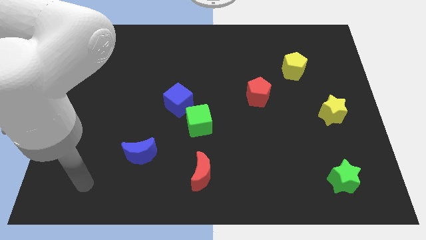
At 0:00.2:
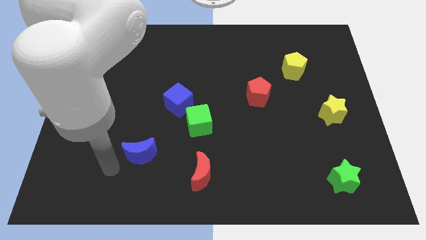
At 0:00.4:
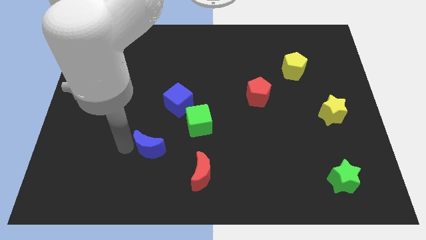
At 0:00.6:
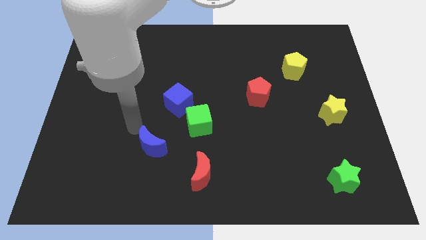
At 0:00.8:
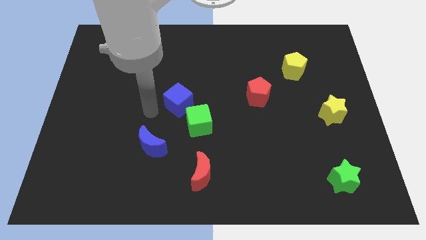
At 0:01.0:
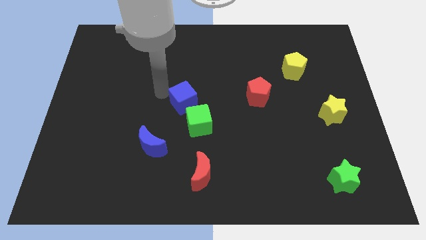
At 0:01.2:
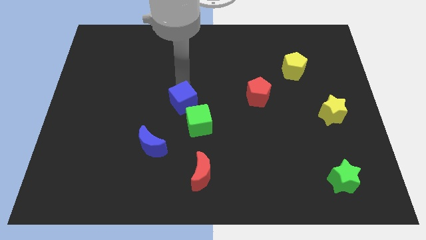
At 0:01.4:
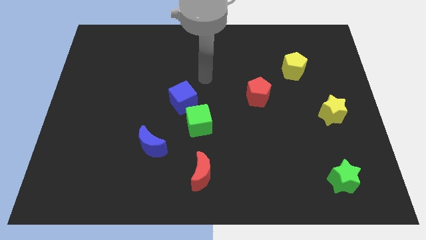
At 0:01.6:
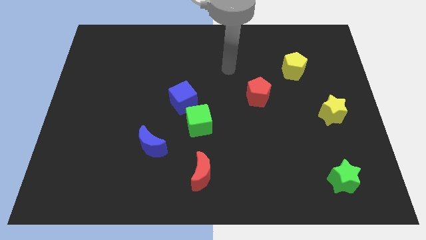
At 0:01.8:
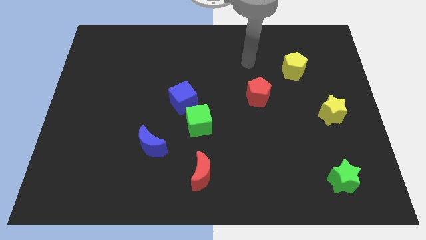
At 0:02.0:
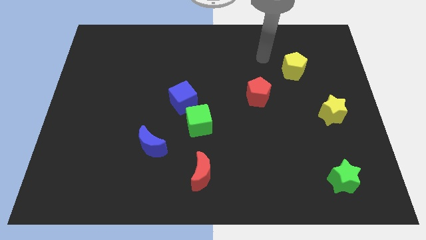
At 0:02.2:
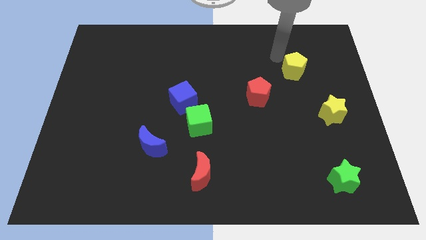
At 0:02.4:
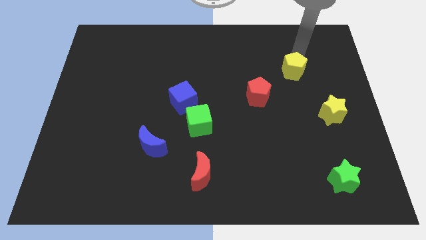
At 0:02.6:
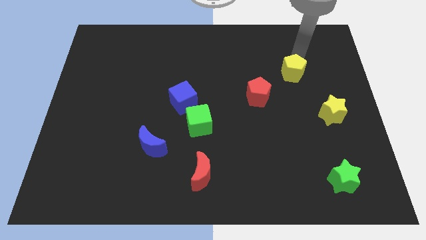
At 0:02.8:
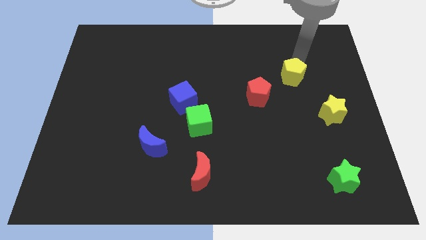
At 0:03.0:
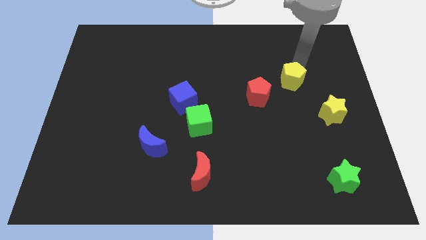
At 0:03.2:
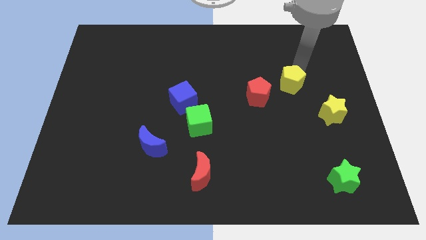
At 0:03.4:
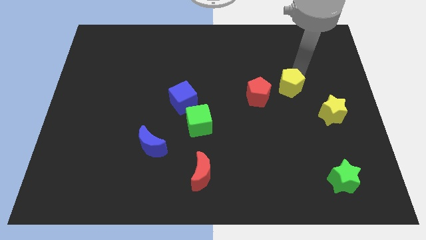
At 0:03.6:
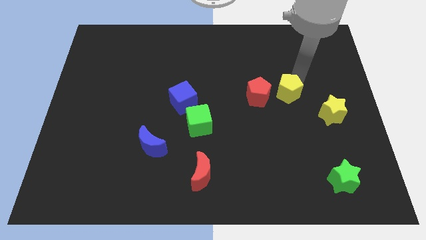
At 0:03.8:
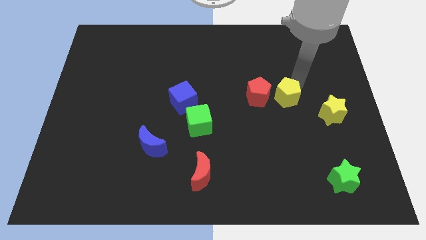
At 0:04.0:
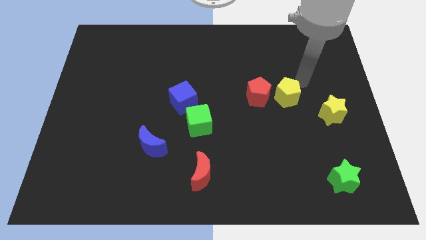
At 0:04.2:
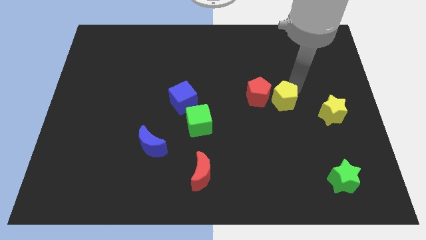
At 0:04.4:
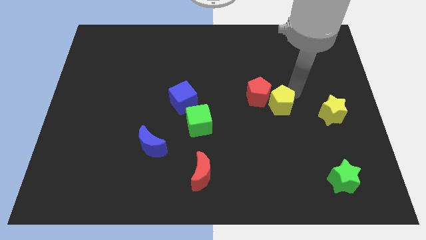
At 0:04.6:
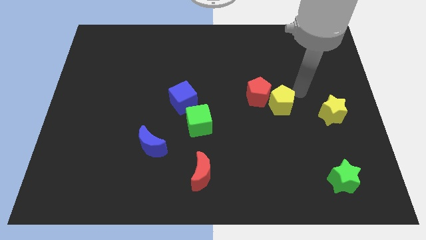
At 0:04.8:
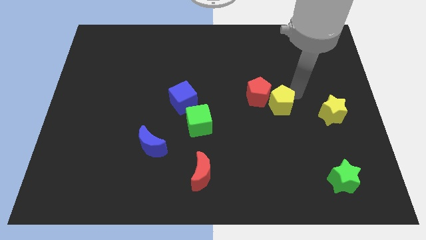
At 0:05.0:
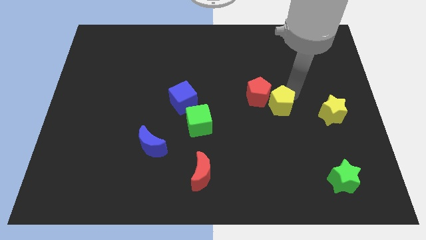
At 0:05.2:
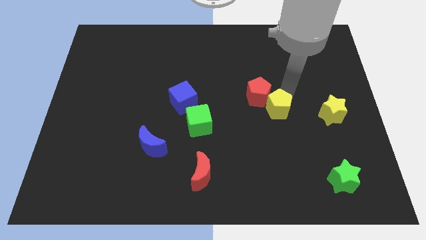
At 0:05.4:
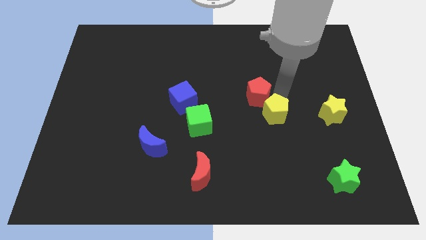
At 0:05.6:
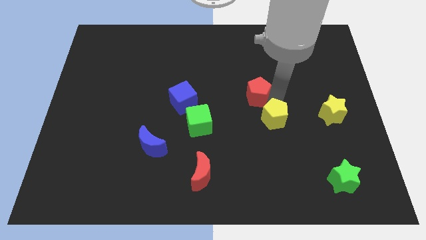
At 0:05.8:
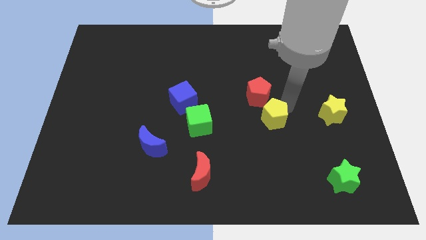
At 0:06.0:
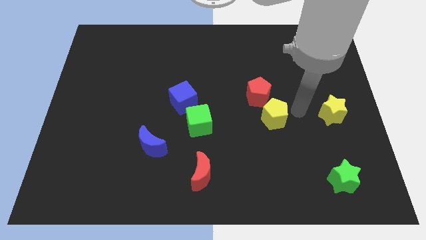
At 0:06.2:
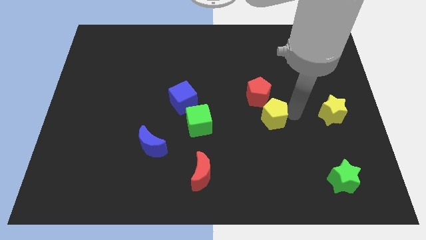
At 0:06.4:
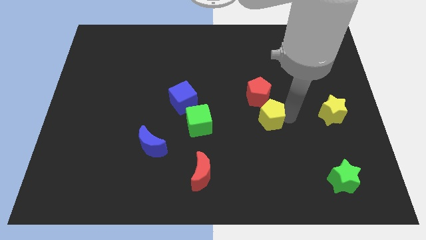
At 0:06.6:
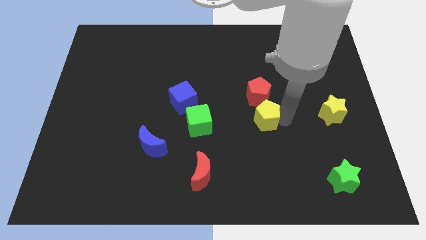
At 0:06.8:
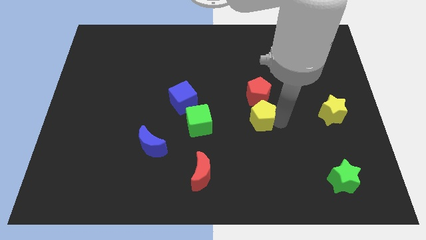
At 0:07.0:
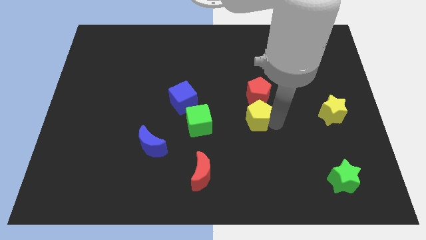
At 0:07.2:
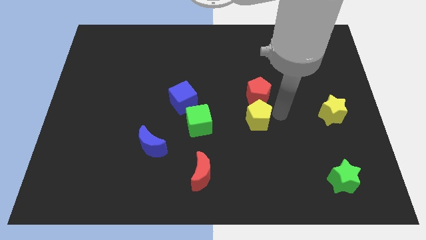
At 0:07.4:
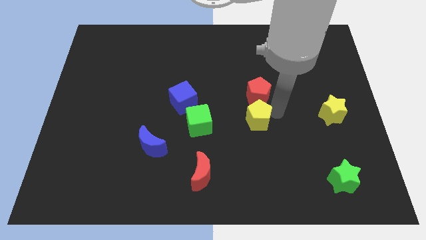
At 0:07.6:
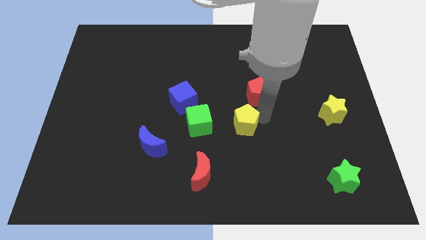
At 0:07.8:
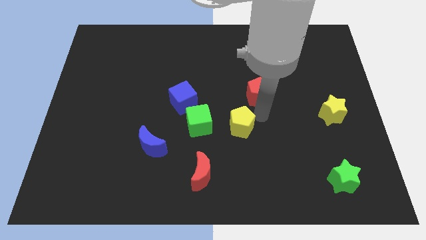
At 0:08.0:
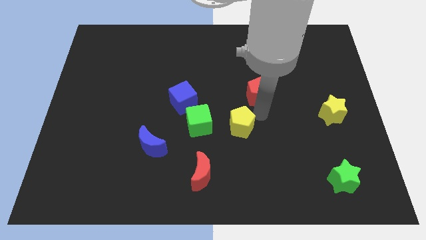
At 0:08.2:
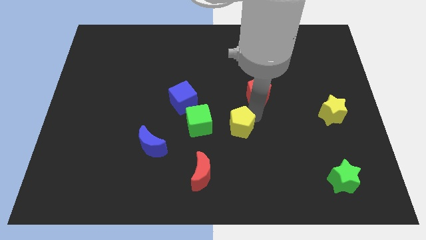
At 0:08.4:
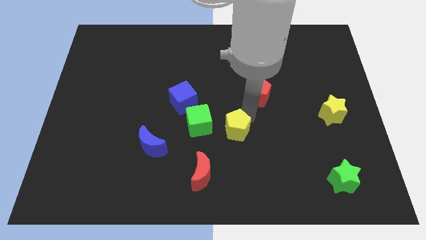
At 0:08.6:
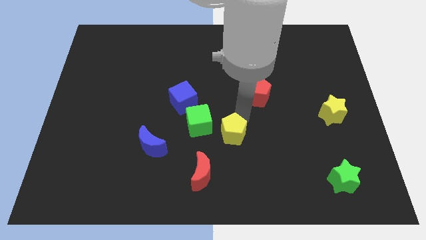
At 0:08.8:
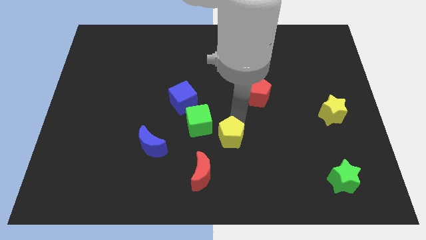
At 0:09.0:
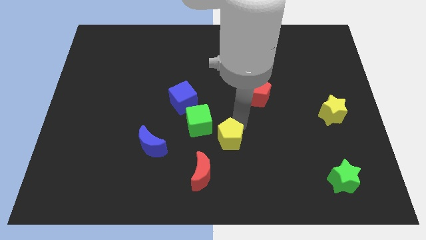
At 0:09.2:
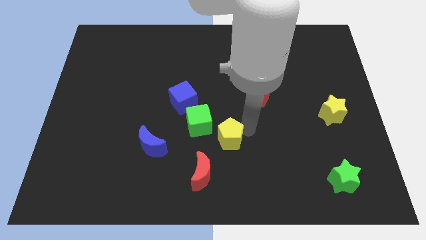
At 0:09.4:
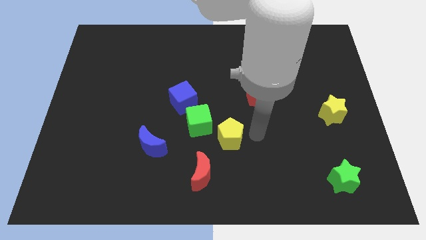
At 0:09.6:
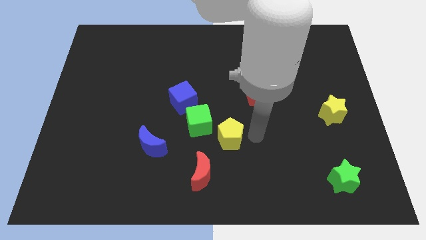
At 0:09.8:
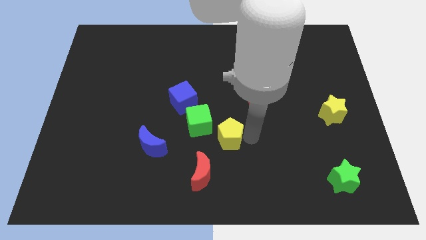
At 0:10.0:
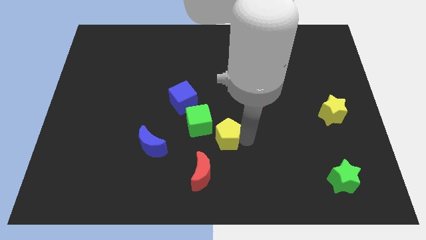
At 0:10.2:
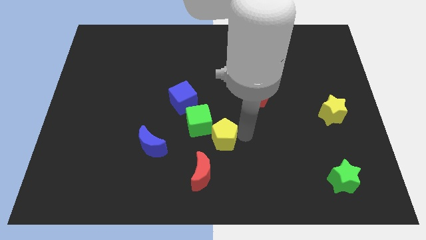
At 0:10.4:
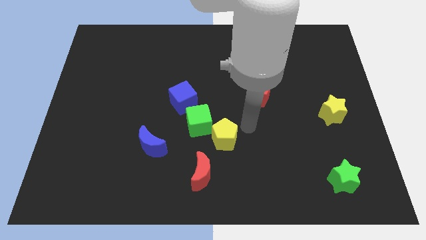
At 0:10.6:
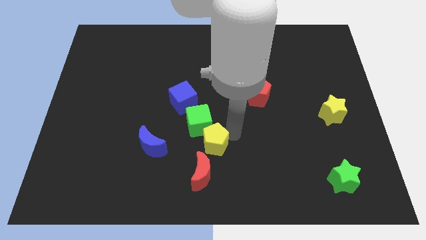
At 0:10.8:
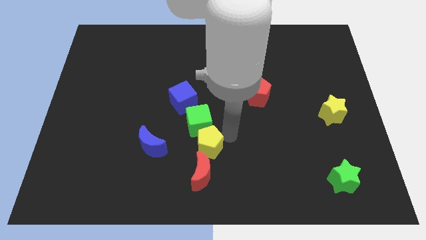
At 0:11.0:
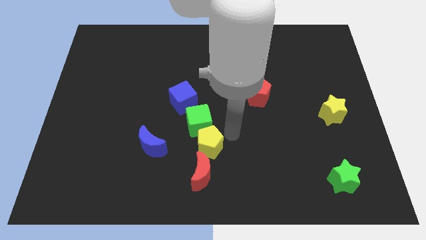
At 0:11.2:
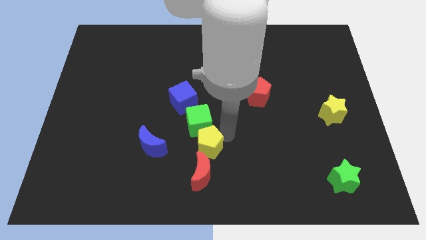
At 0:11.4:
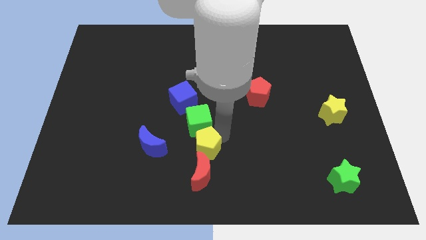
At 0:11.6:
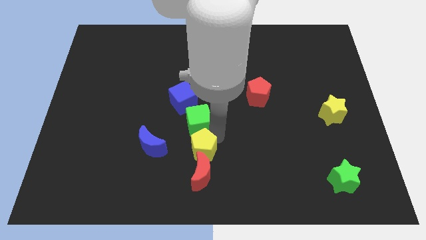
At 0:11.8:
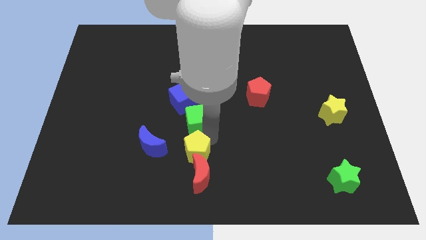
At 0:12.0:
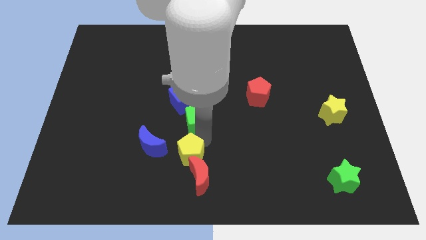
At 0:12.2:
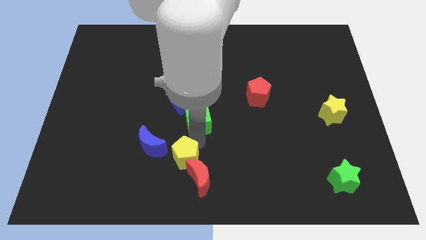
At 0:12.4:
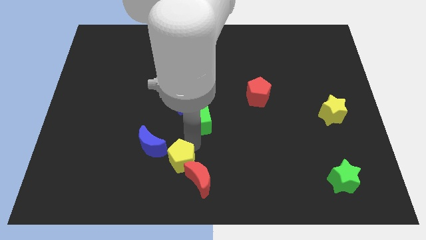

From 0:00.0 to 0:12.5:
move the yellow pentagon left of the red moon
